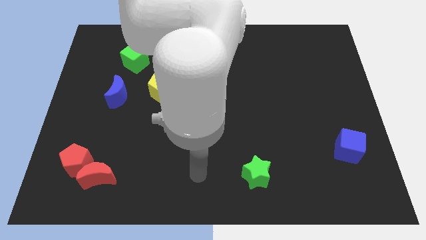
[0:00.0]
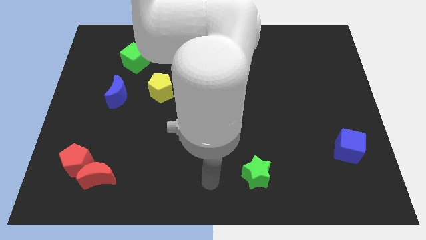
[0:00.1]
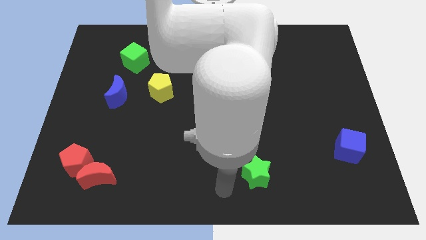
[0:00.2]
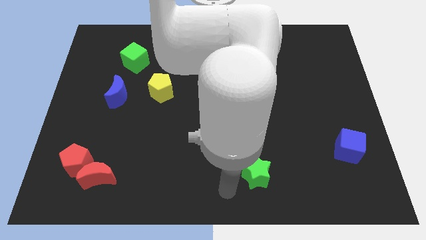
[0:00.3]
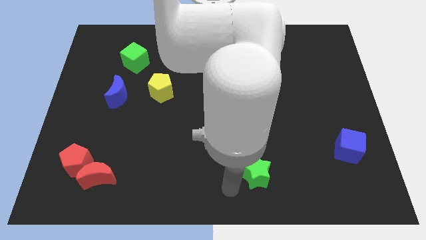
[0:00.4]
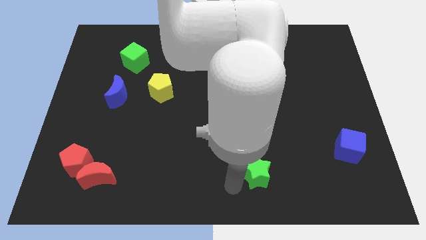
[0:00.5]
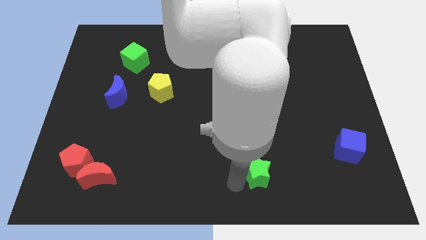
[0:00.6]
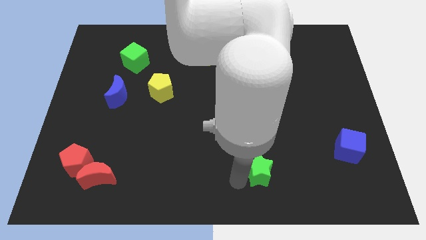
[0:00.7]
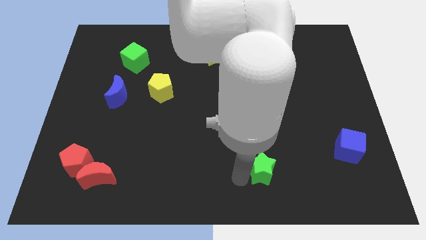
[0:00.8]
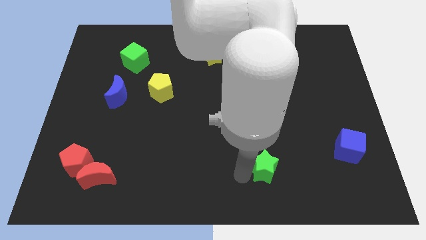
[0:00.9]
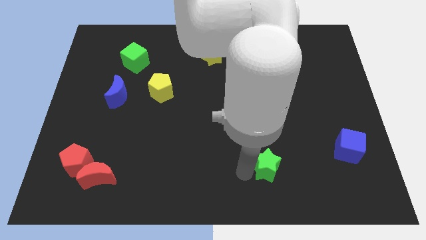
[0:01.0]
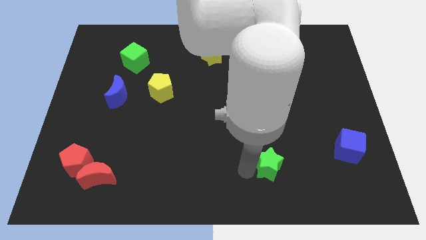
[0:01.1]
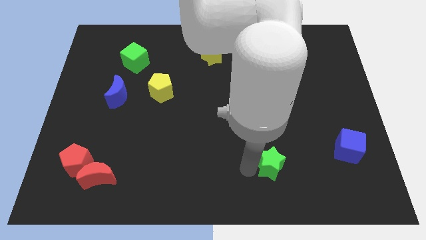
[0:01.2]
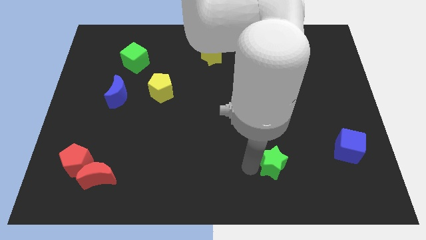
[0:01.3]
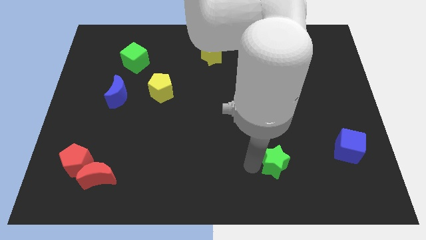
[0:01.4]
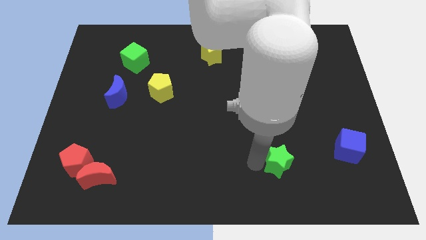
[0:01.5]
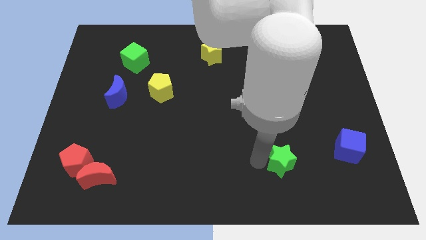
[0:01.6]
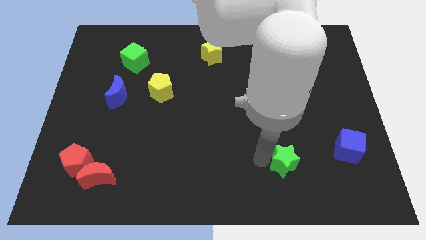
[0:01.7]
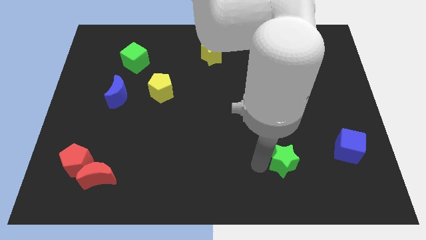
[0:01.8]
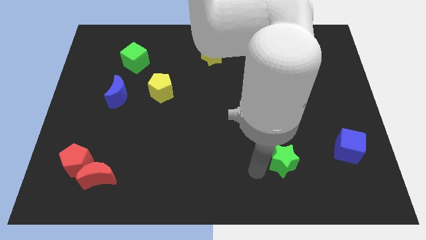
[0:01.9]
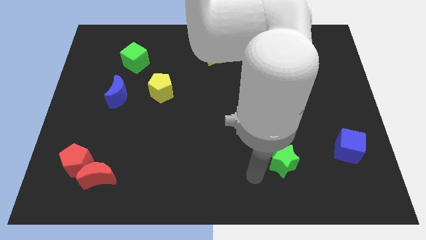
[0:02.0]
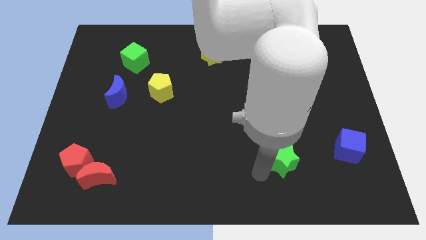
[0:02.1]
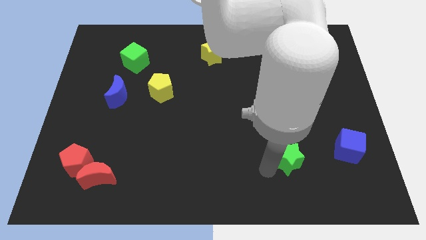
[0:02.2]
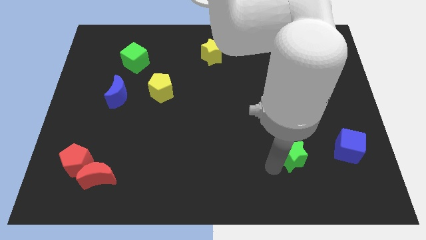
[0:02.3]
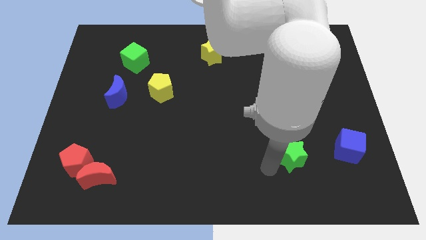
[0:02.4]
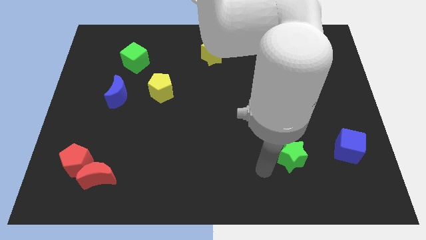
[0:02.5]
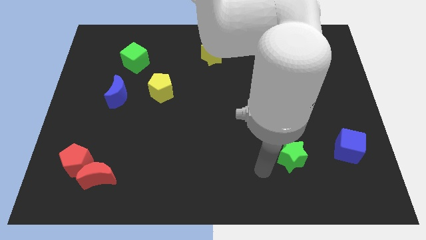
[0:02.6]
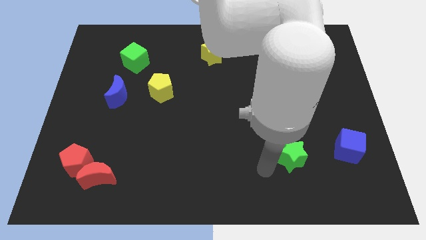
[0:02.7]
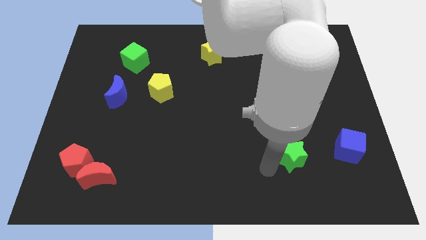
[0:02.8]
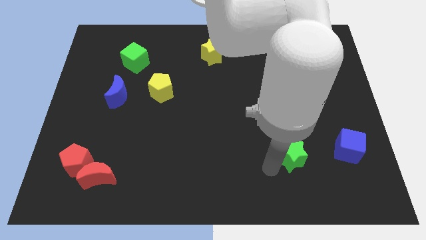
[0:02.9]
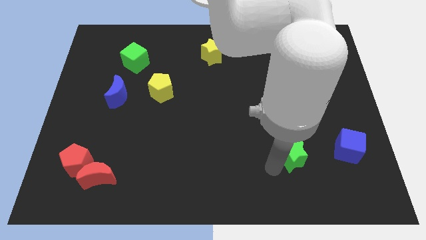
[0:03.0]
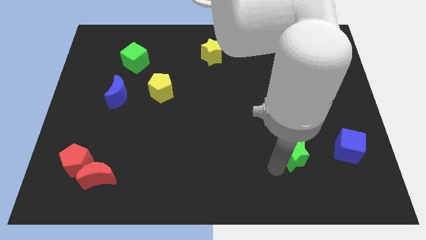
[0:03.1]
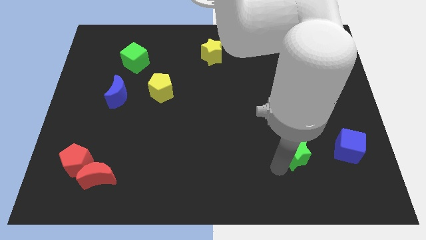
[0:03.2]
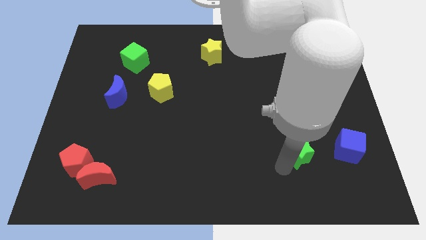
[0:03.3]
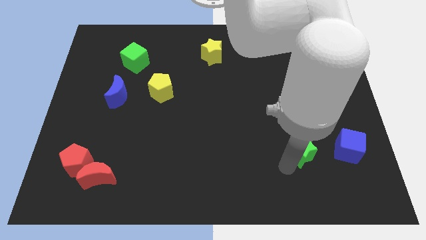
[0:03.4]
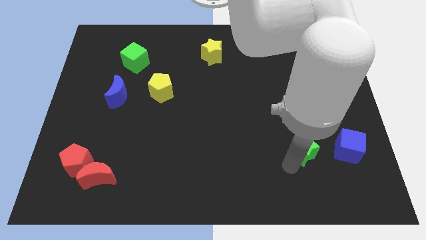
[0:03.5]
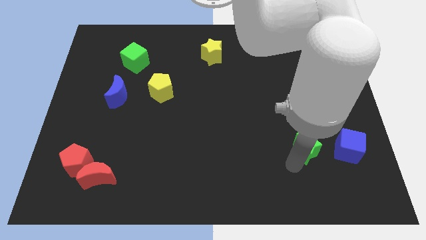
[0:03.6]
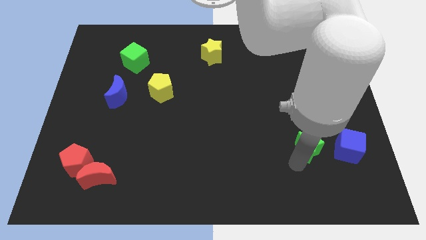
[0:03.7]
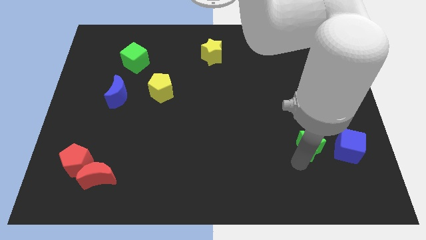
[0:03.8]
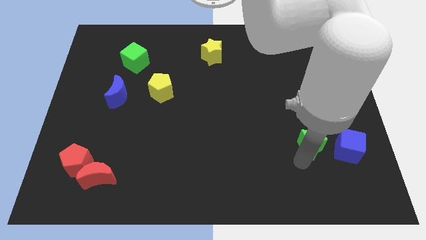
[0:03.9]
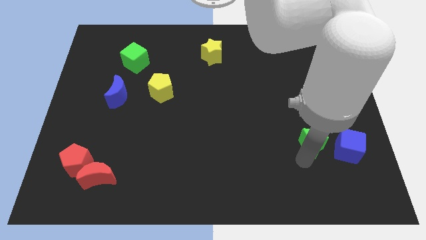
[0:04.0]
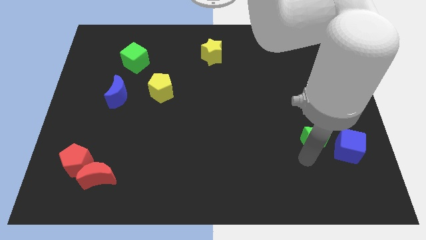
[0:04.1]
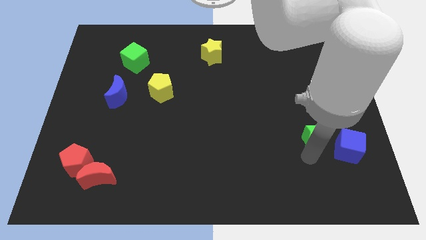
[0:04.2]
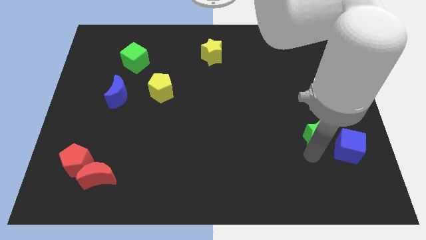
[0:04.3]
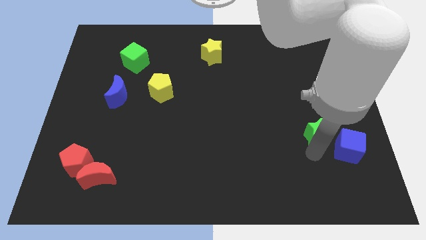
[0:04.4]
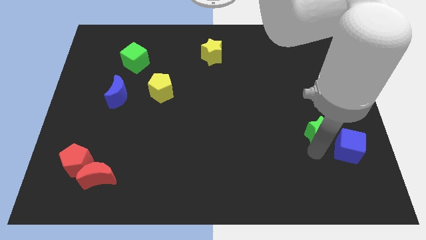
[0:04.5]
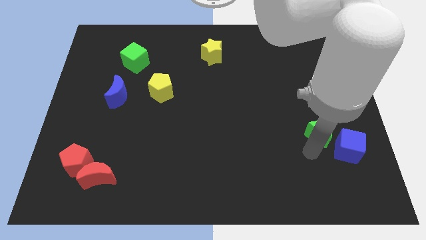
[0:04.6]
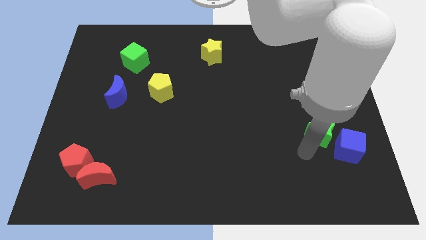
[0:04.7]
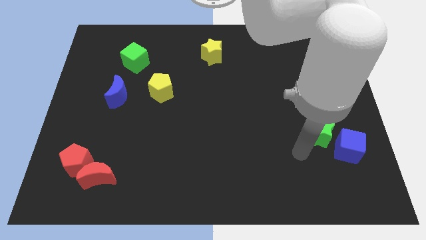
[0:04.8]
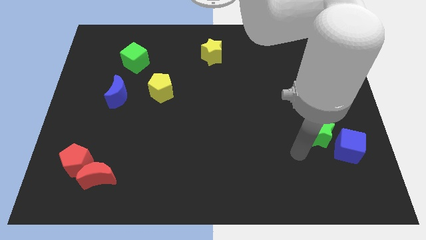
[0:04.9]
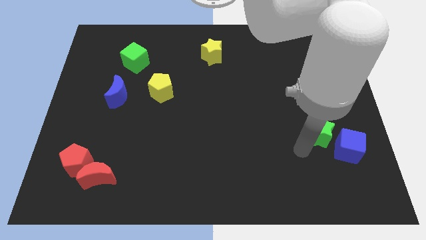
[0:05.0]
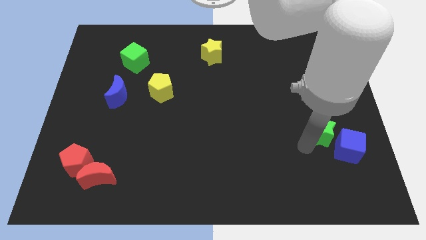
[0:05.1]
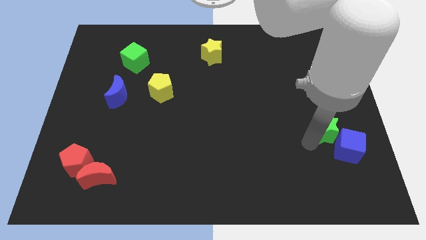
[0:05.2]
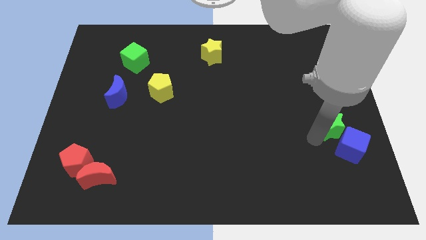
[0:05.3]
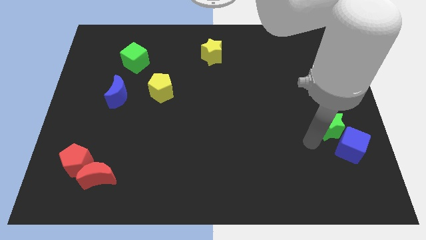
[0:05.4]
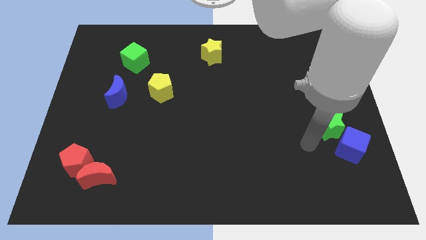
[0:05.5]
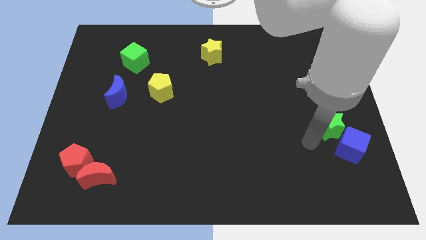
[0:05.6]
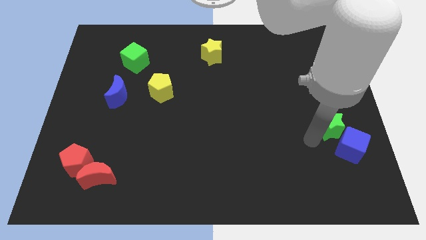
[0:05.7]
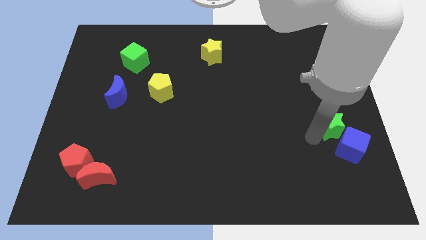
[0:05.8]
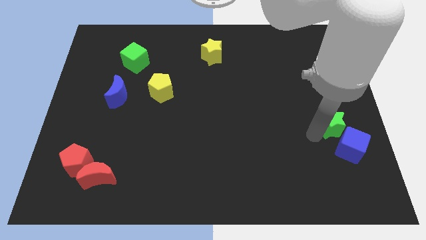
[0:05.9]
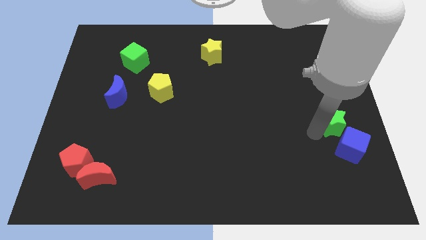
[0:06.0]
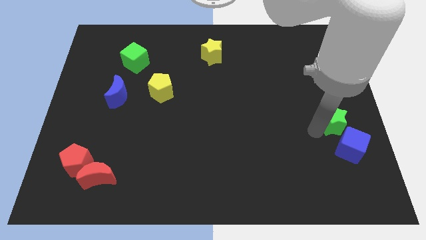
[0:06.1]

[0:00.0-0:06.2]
put the green star to the center right
